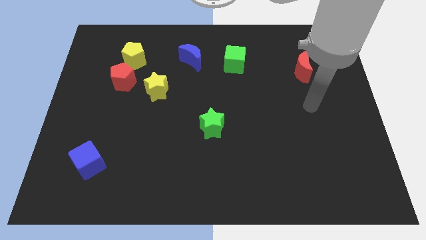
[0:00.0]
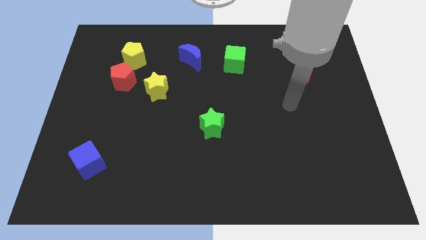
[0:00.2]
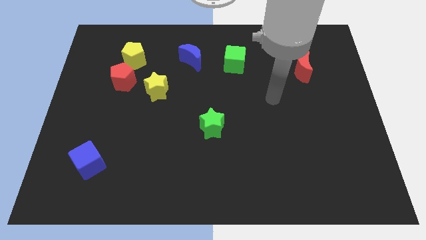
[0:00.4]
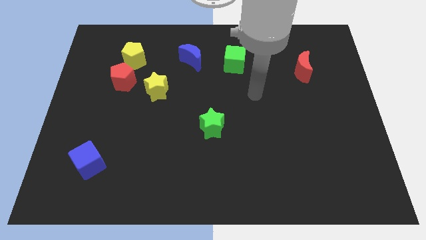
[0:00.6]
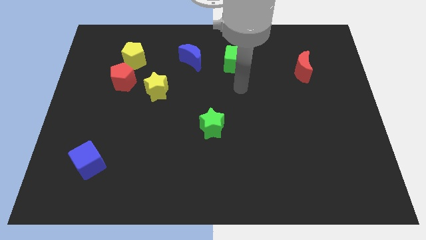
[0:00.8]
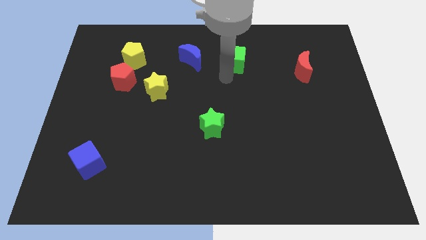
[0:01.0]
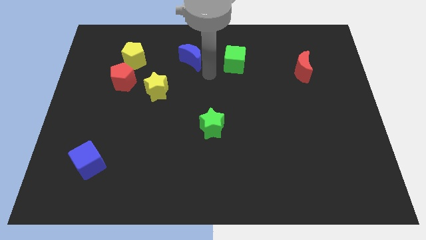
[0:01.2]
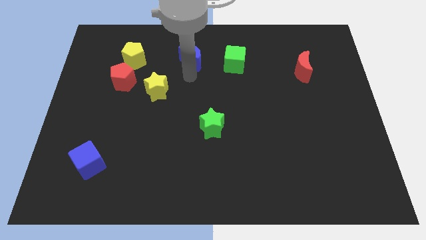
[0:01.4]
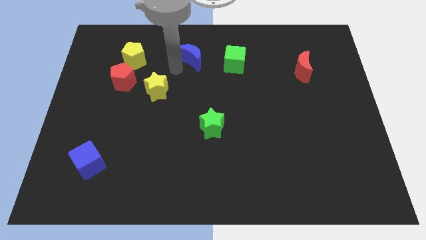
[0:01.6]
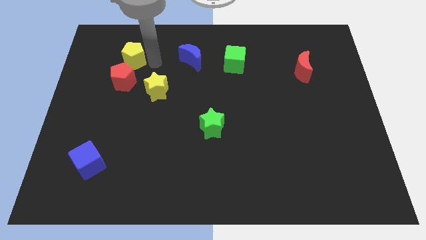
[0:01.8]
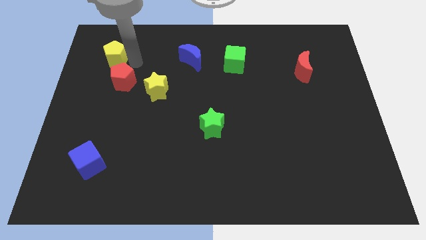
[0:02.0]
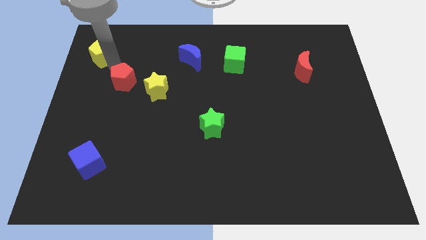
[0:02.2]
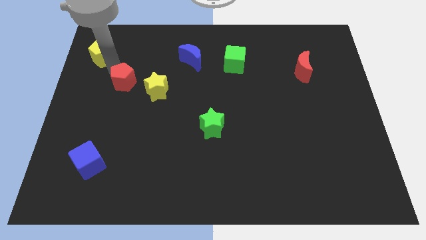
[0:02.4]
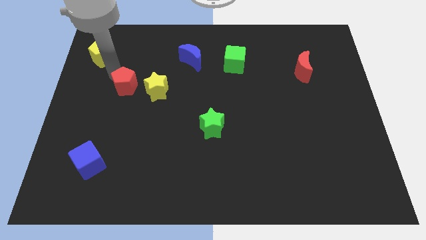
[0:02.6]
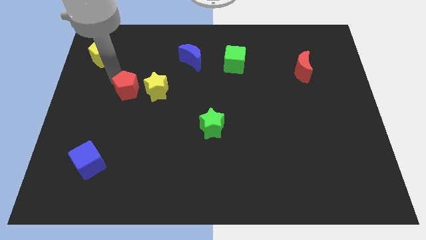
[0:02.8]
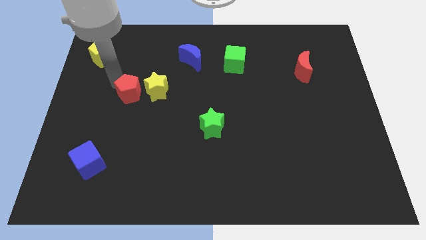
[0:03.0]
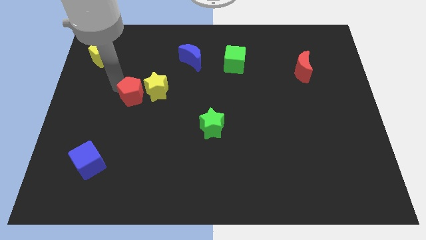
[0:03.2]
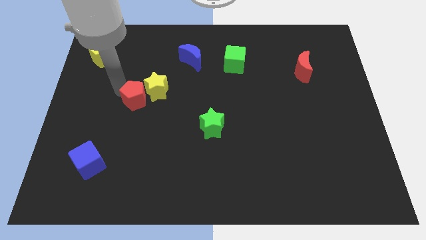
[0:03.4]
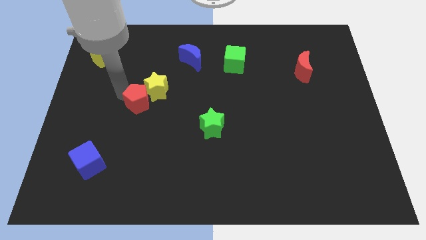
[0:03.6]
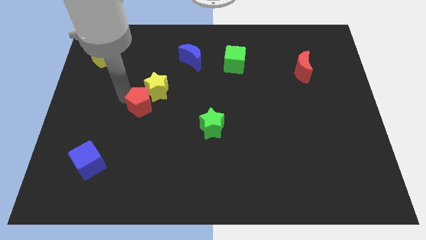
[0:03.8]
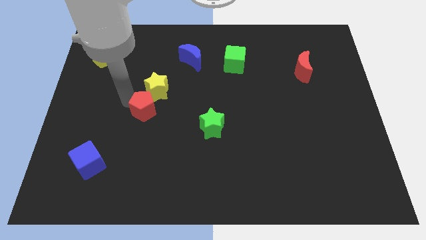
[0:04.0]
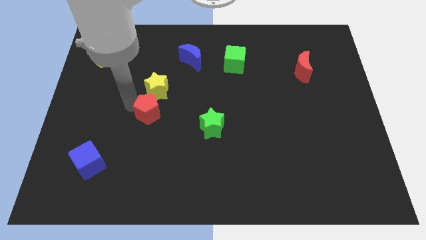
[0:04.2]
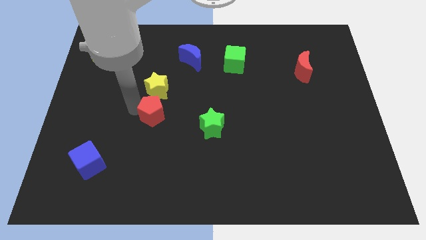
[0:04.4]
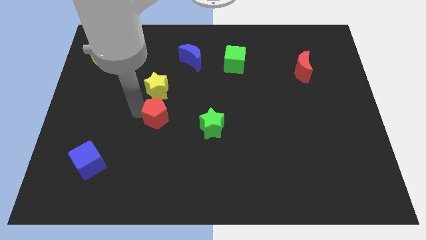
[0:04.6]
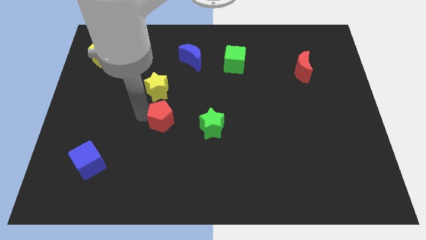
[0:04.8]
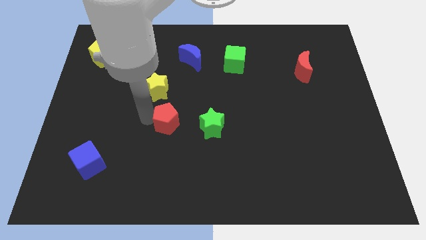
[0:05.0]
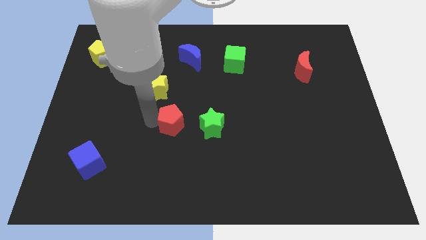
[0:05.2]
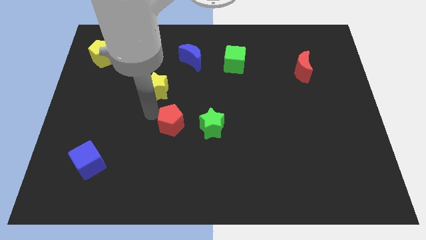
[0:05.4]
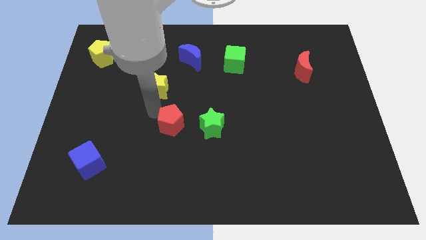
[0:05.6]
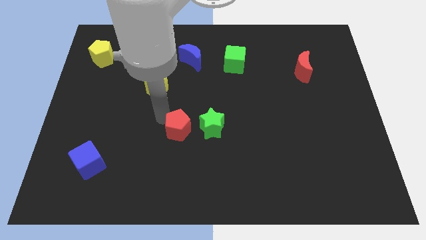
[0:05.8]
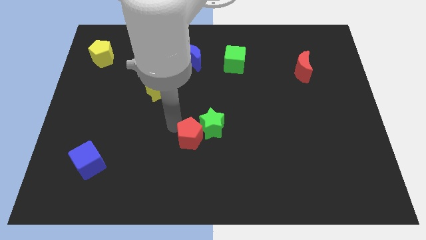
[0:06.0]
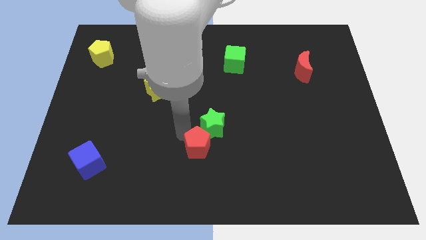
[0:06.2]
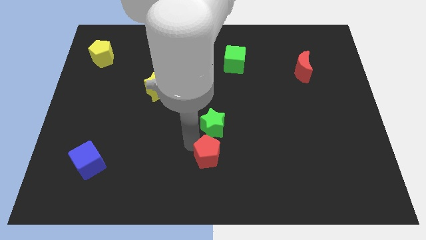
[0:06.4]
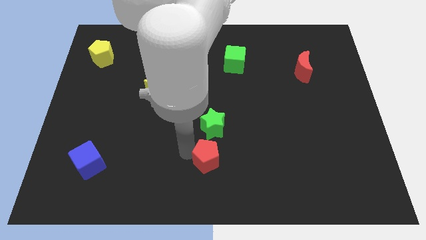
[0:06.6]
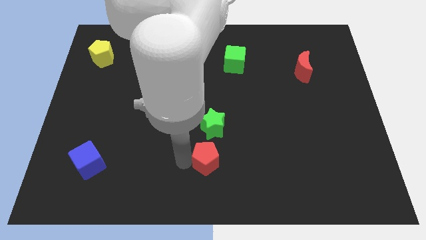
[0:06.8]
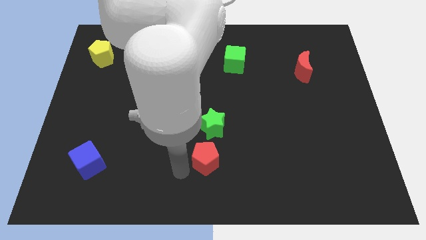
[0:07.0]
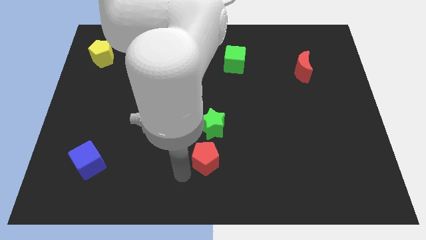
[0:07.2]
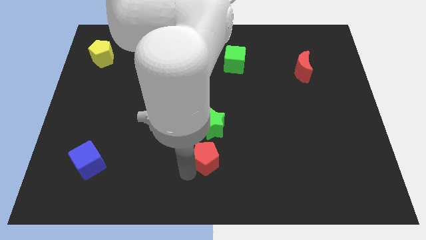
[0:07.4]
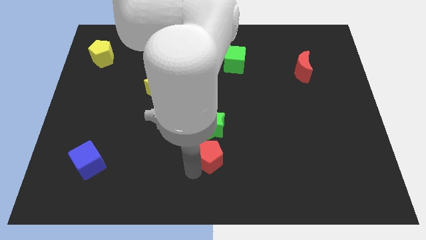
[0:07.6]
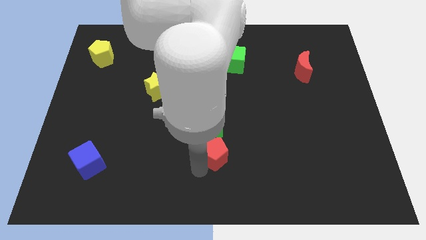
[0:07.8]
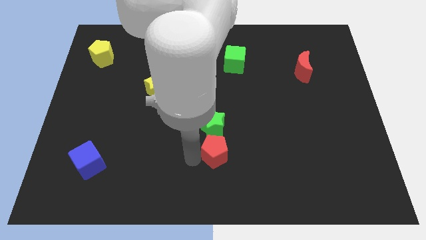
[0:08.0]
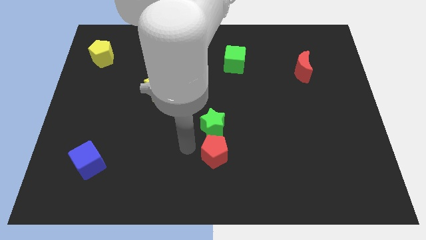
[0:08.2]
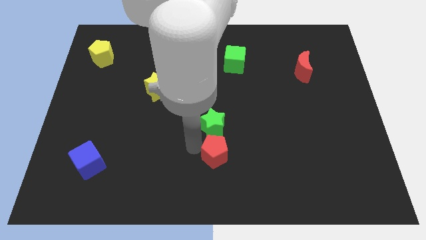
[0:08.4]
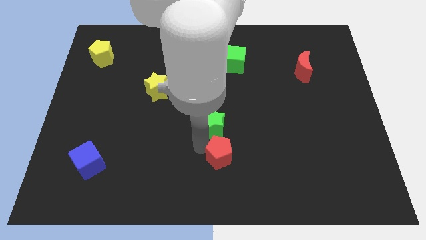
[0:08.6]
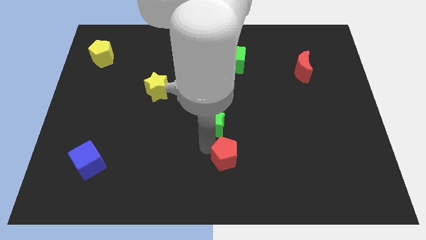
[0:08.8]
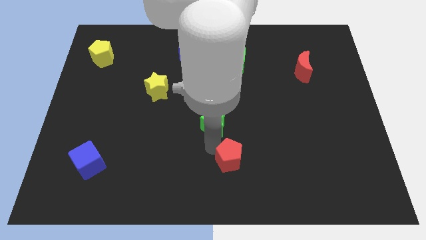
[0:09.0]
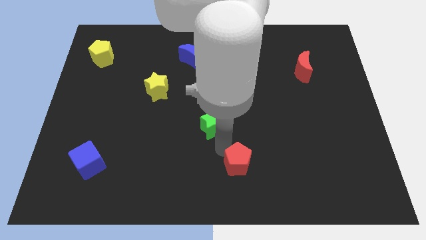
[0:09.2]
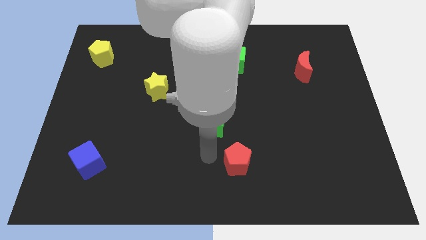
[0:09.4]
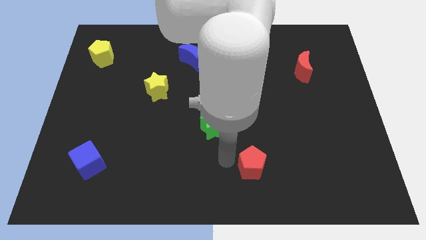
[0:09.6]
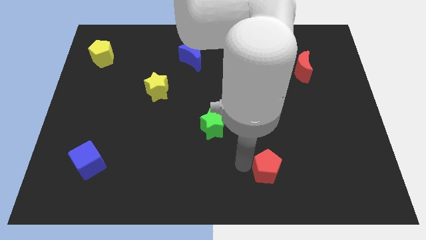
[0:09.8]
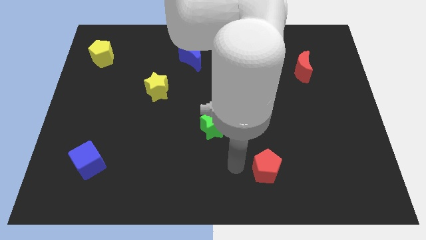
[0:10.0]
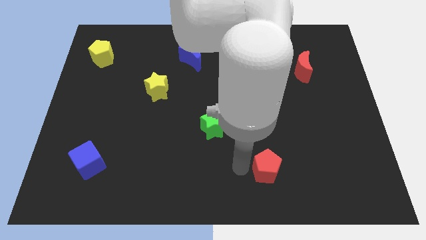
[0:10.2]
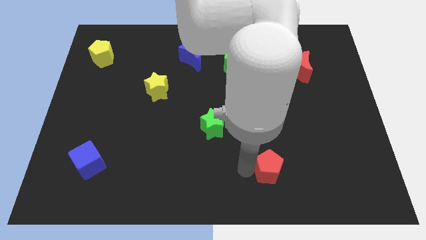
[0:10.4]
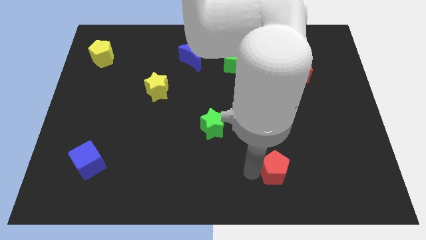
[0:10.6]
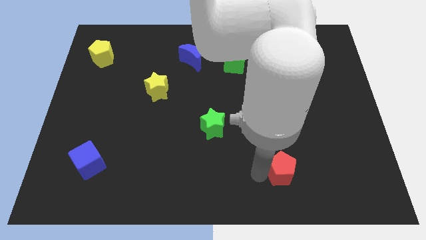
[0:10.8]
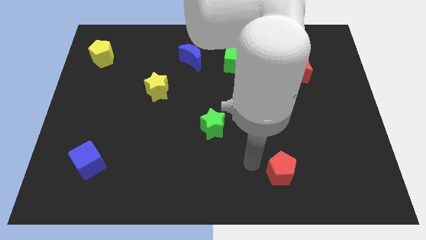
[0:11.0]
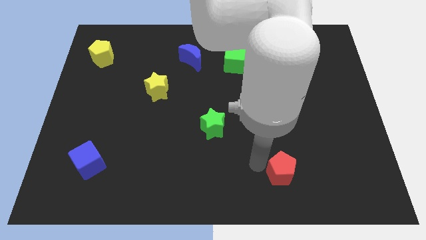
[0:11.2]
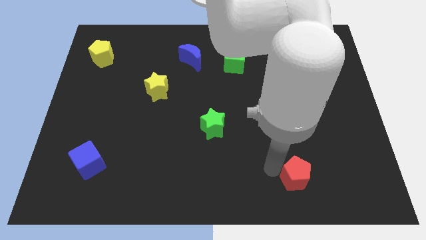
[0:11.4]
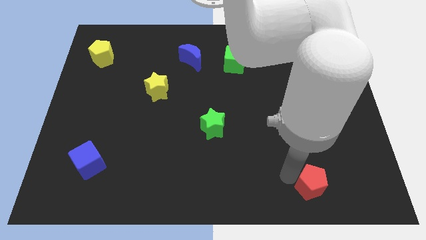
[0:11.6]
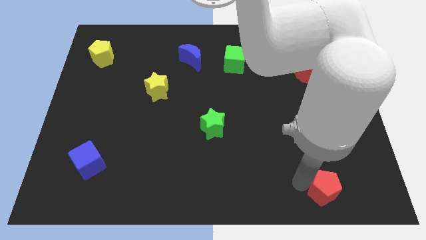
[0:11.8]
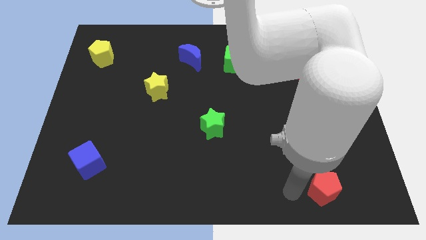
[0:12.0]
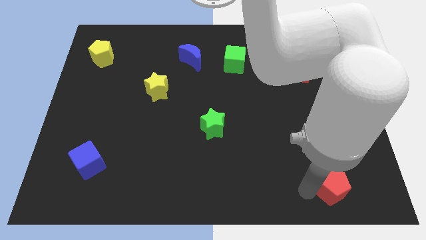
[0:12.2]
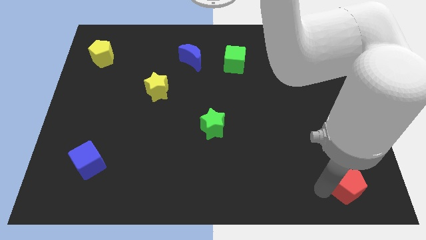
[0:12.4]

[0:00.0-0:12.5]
put the red pentagon to the bottom right
